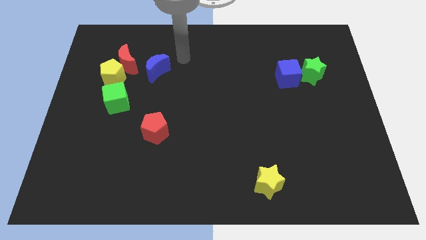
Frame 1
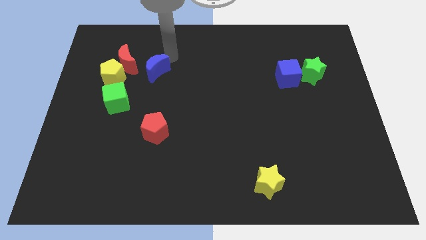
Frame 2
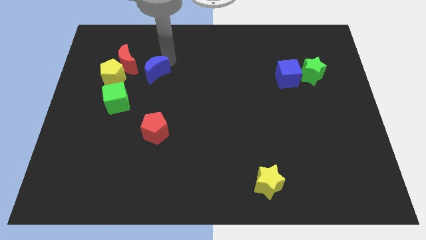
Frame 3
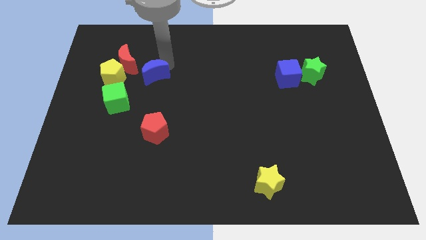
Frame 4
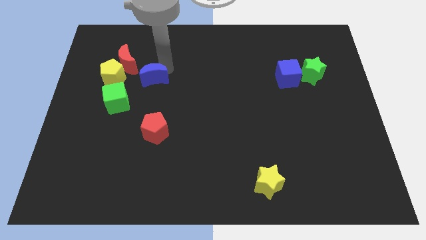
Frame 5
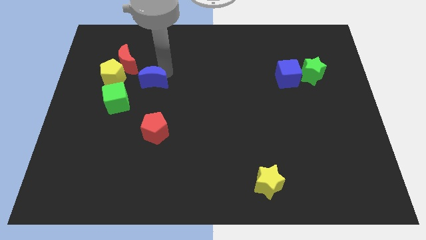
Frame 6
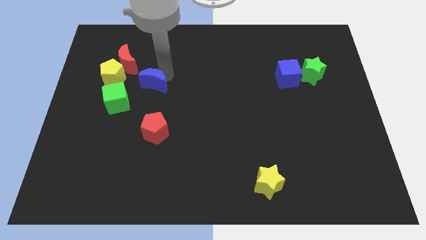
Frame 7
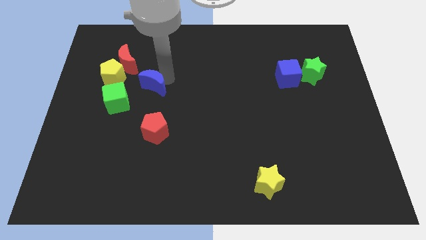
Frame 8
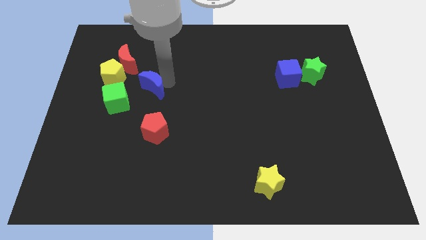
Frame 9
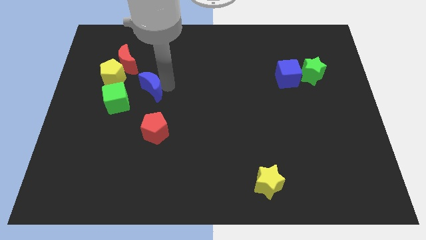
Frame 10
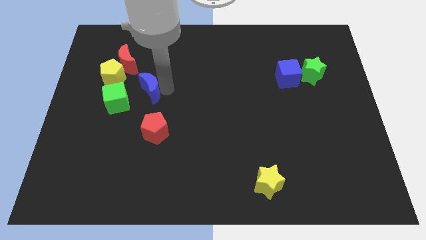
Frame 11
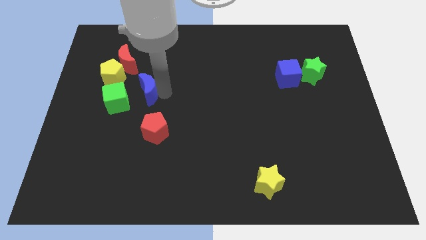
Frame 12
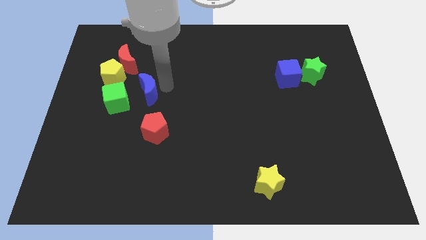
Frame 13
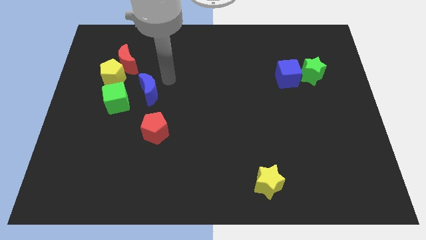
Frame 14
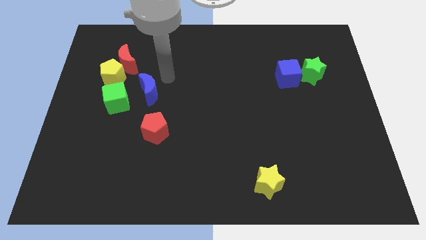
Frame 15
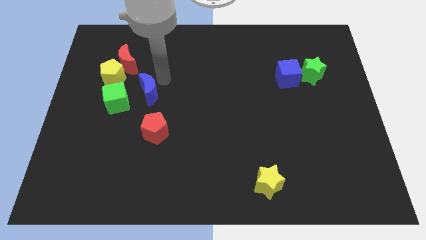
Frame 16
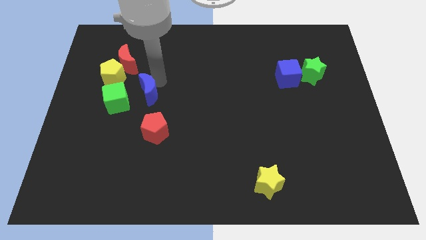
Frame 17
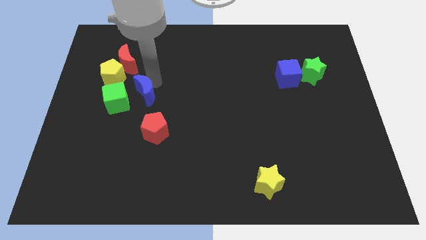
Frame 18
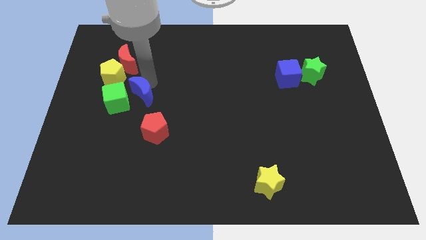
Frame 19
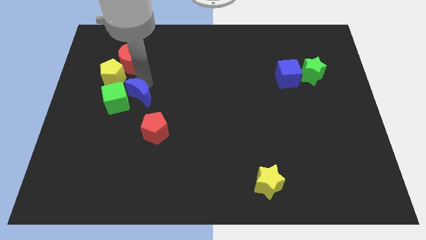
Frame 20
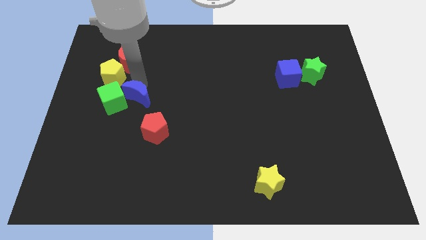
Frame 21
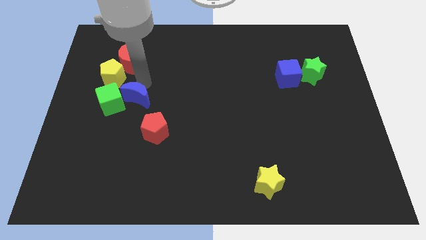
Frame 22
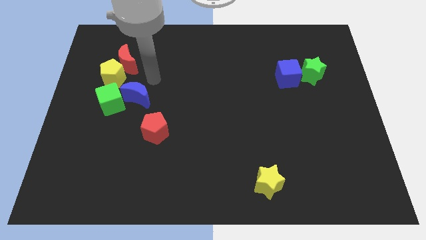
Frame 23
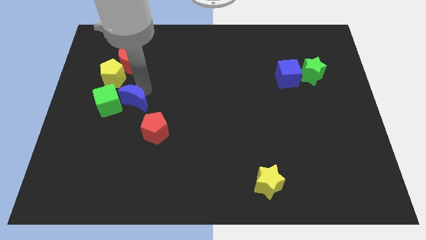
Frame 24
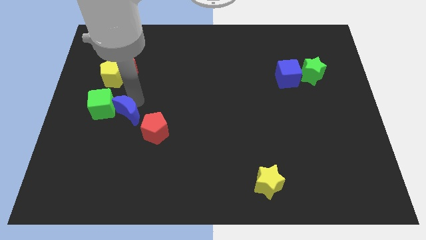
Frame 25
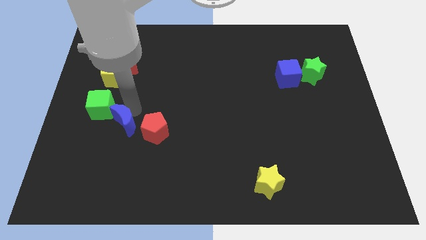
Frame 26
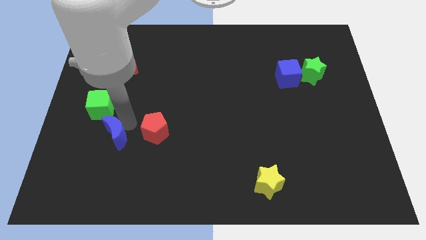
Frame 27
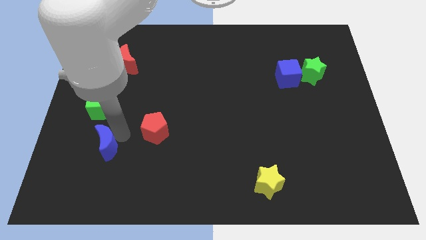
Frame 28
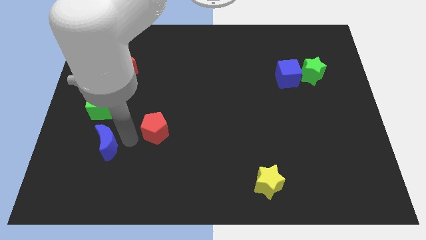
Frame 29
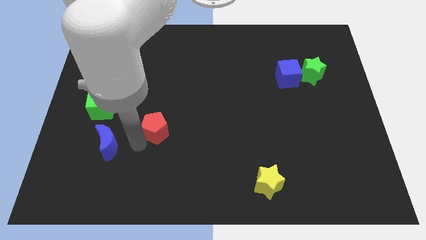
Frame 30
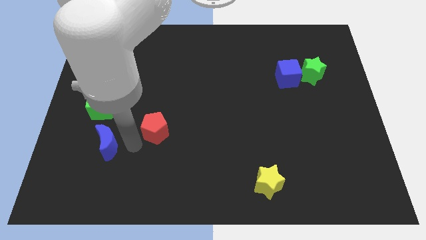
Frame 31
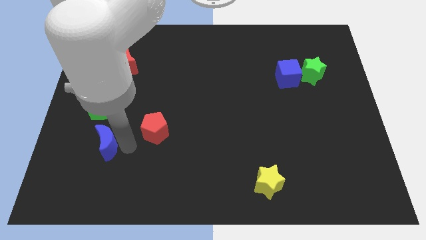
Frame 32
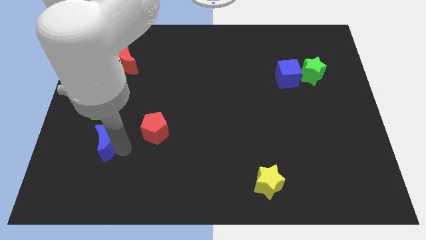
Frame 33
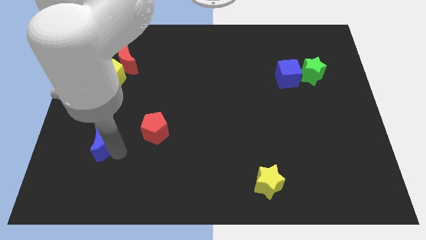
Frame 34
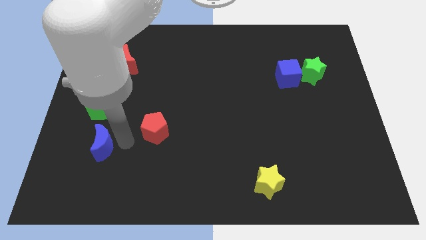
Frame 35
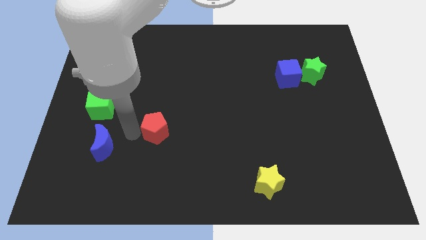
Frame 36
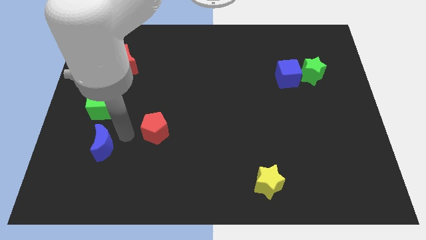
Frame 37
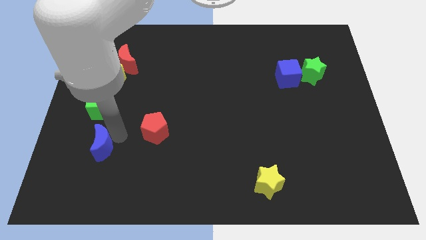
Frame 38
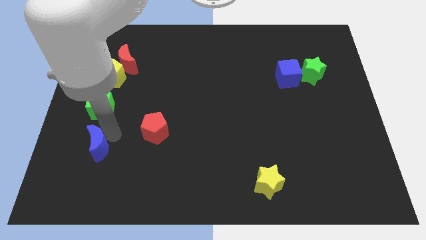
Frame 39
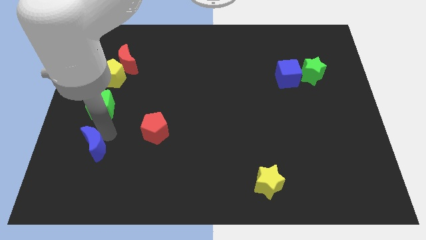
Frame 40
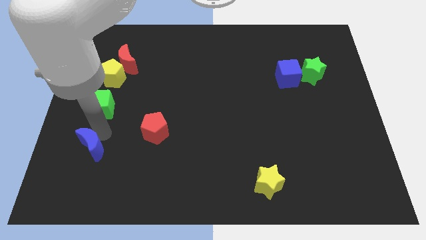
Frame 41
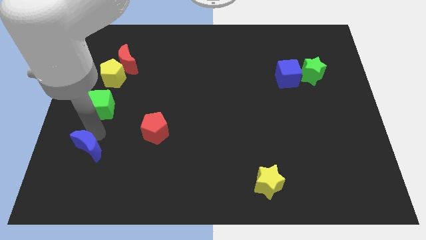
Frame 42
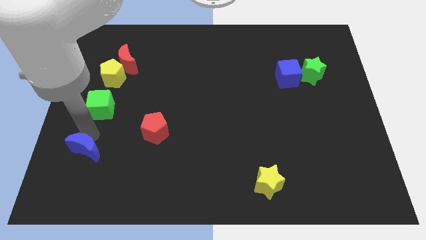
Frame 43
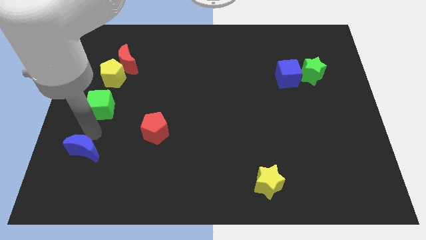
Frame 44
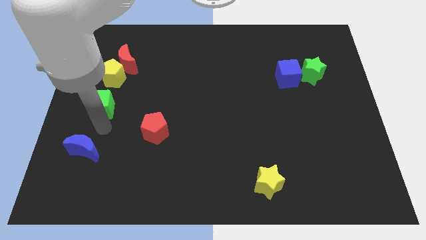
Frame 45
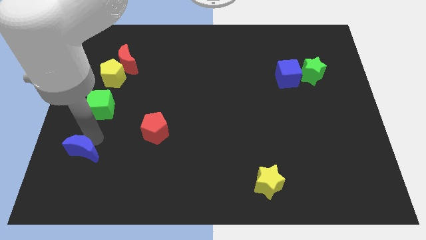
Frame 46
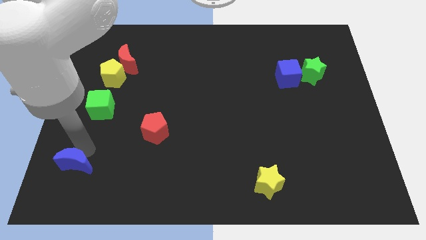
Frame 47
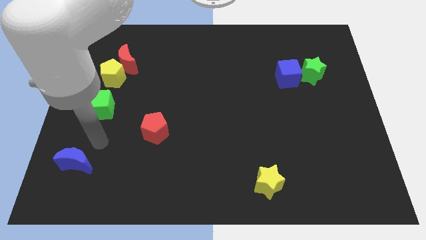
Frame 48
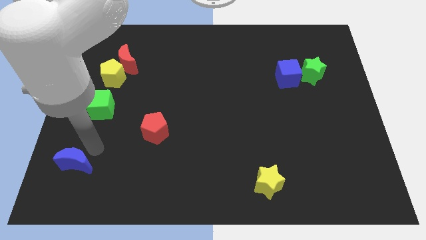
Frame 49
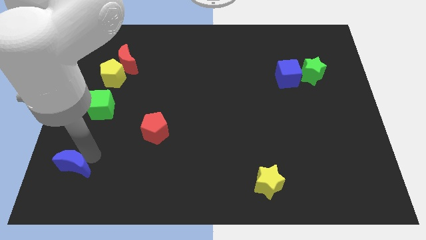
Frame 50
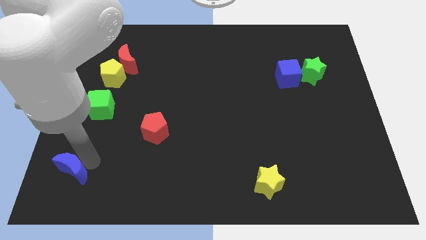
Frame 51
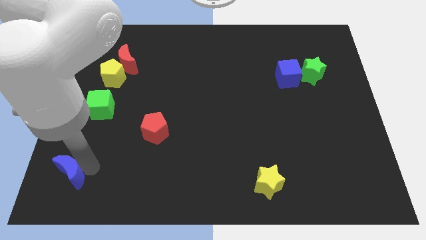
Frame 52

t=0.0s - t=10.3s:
move the blue moon to the bottom left of the board
